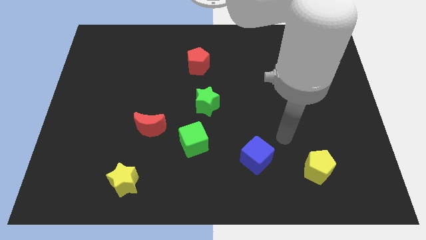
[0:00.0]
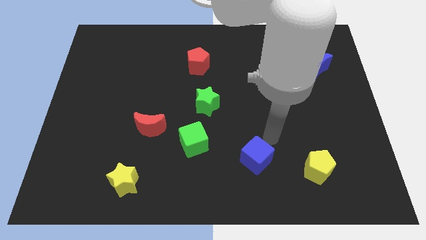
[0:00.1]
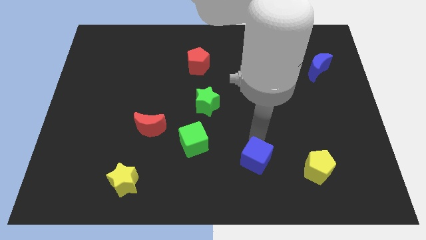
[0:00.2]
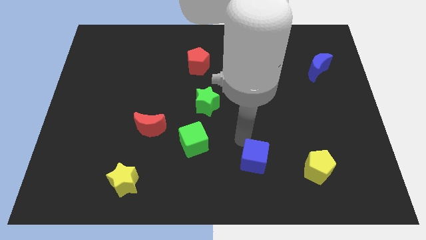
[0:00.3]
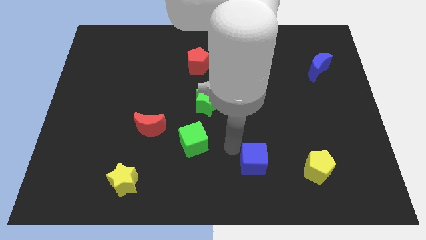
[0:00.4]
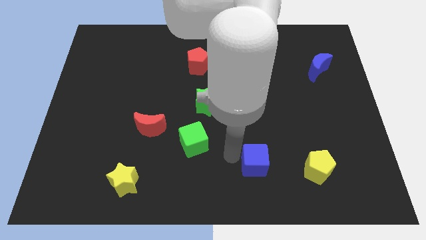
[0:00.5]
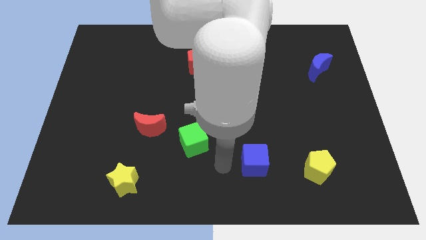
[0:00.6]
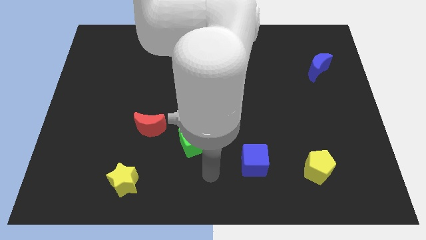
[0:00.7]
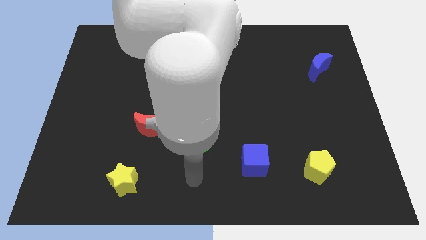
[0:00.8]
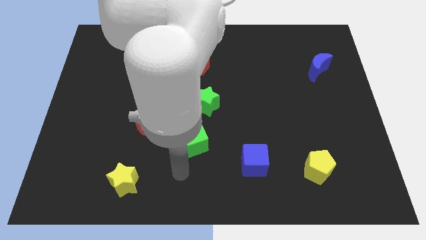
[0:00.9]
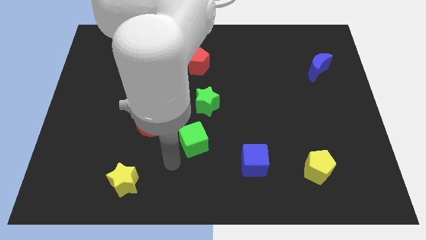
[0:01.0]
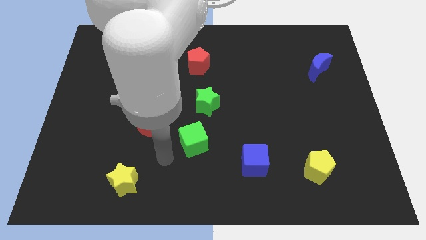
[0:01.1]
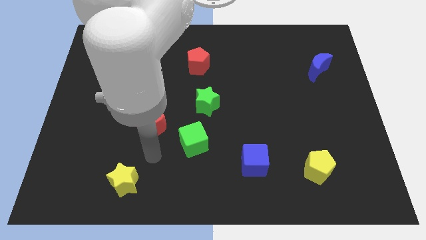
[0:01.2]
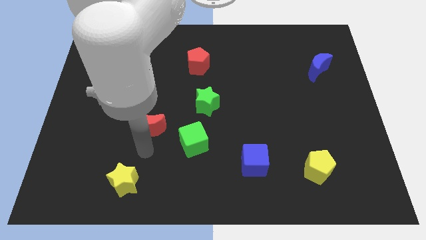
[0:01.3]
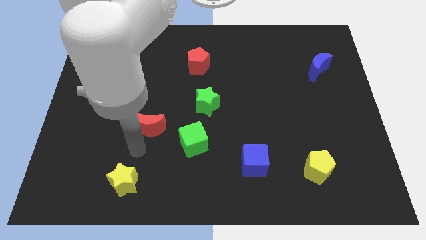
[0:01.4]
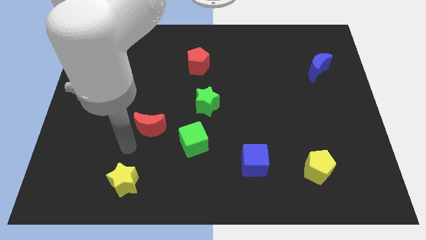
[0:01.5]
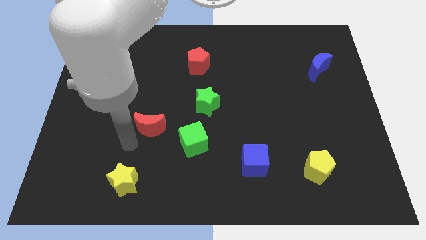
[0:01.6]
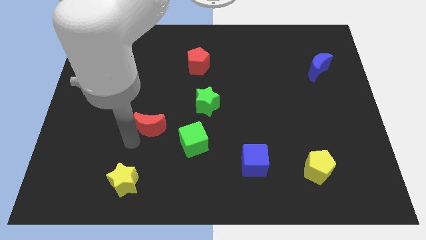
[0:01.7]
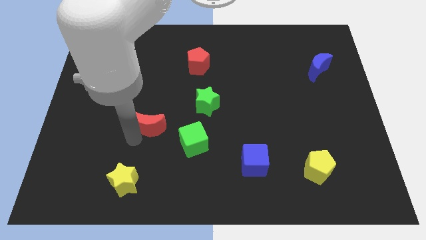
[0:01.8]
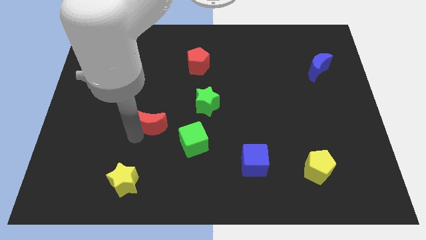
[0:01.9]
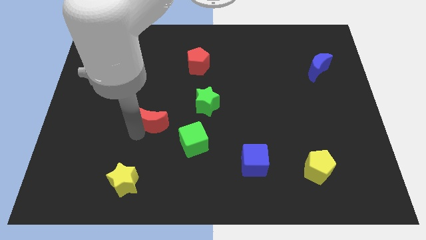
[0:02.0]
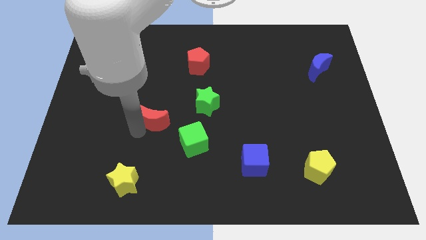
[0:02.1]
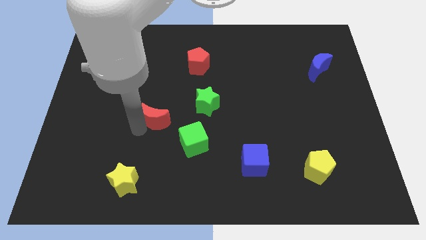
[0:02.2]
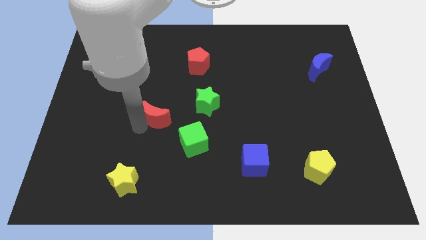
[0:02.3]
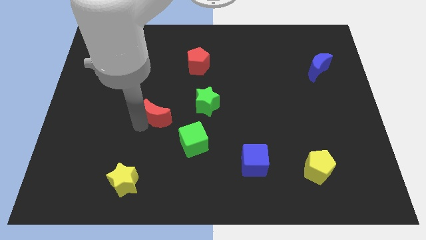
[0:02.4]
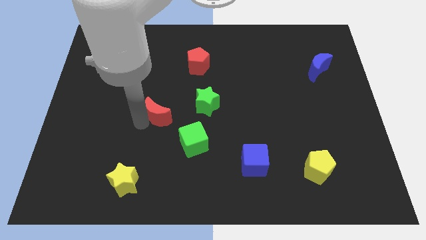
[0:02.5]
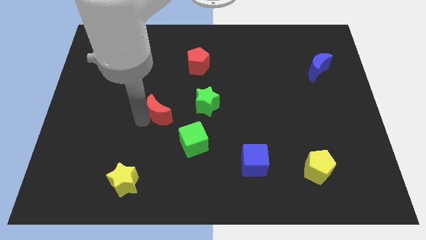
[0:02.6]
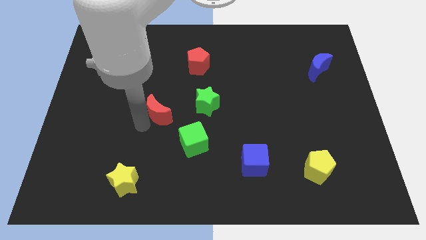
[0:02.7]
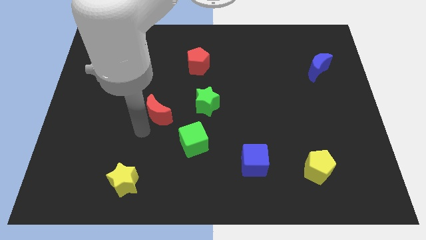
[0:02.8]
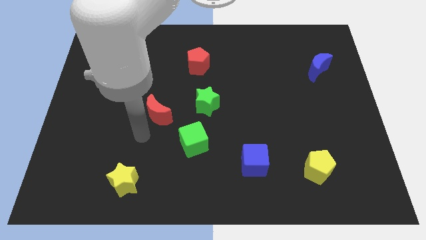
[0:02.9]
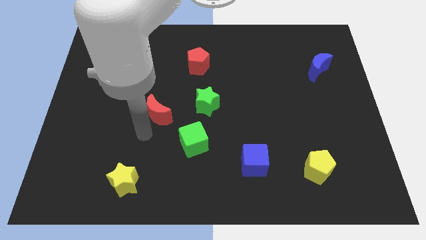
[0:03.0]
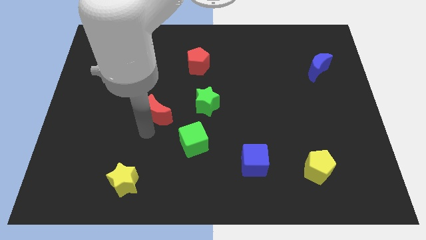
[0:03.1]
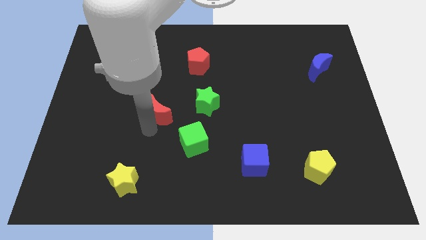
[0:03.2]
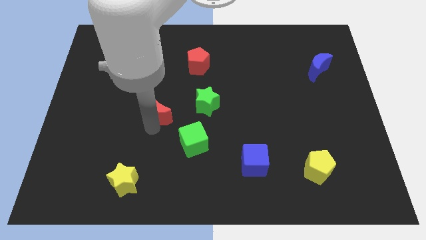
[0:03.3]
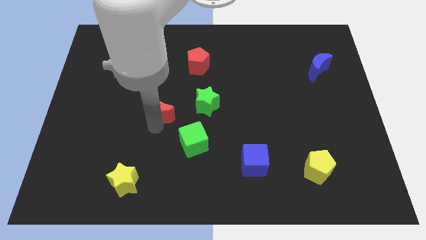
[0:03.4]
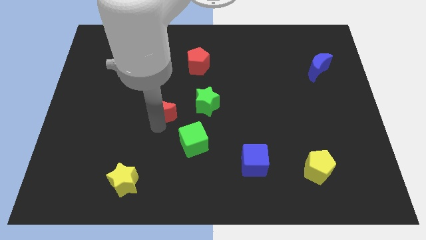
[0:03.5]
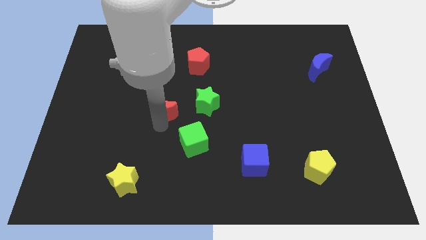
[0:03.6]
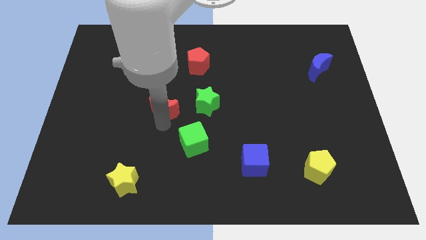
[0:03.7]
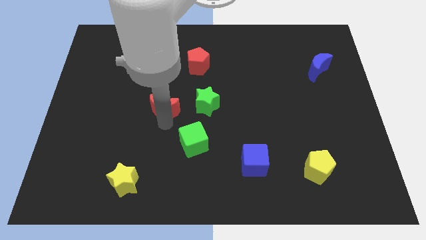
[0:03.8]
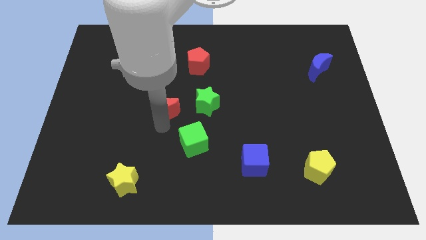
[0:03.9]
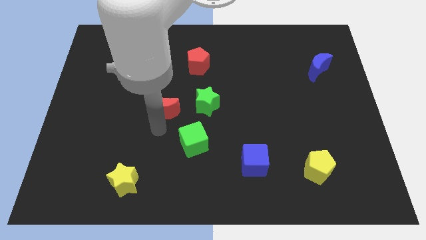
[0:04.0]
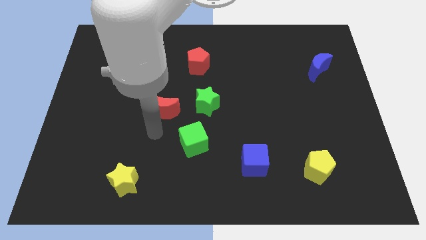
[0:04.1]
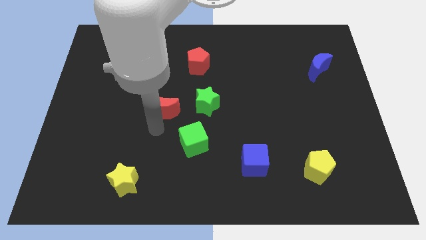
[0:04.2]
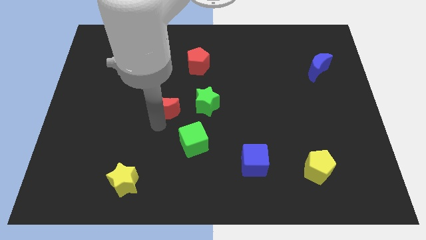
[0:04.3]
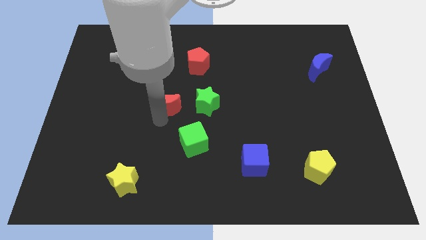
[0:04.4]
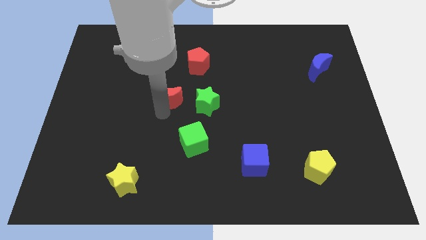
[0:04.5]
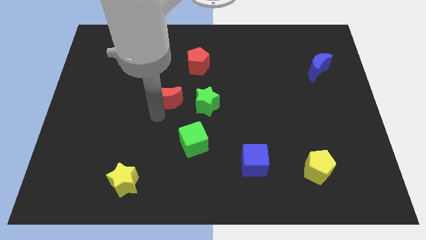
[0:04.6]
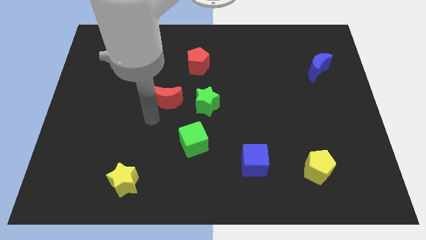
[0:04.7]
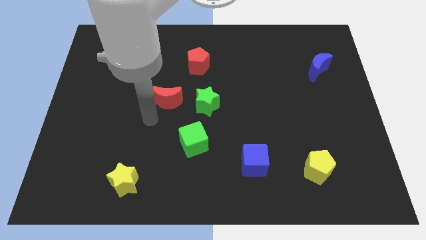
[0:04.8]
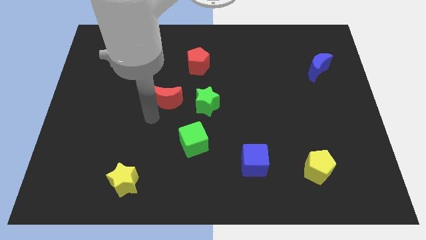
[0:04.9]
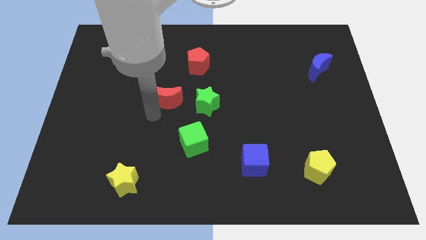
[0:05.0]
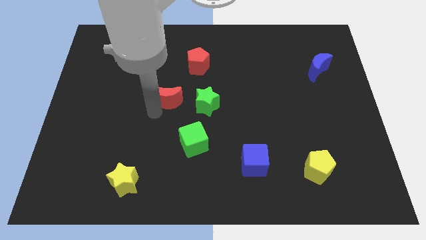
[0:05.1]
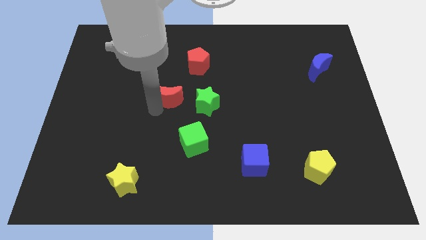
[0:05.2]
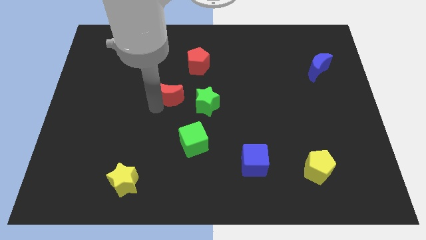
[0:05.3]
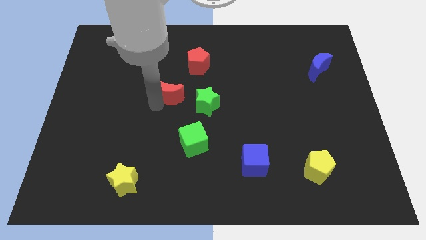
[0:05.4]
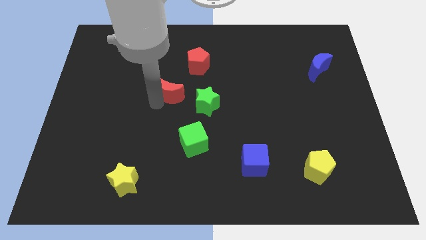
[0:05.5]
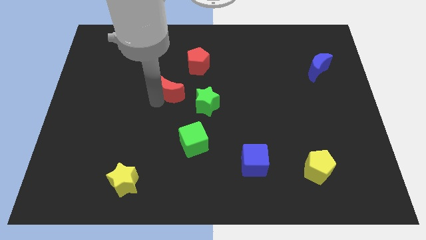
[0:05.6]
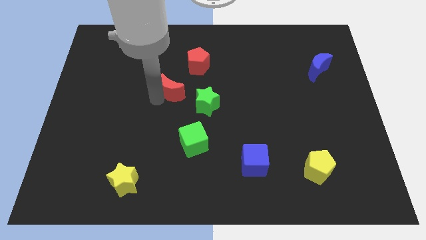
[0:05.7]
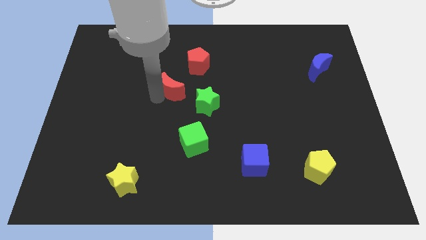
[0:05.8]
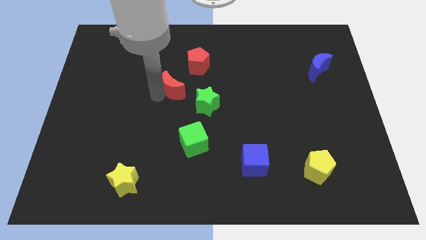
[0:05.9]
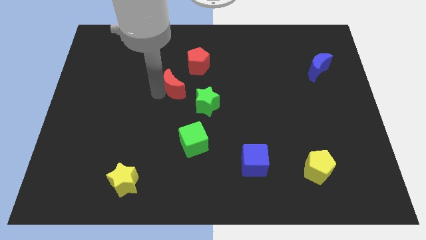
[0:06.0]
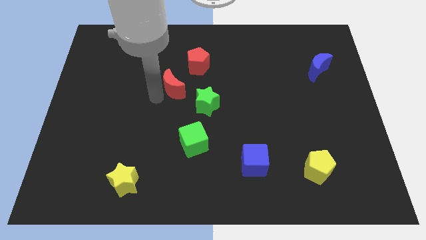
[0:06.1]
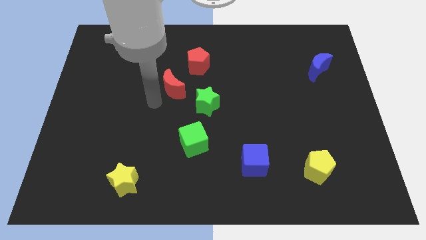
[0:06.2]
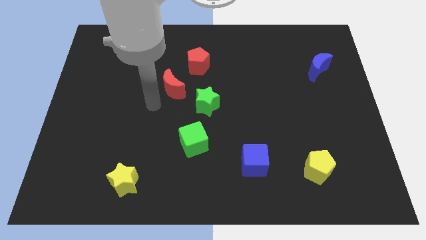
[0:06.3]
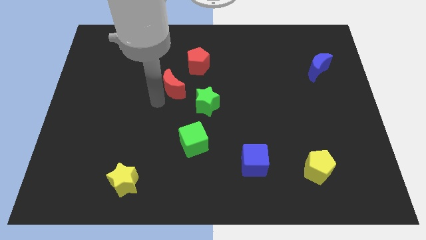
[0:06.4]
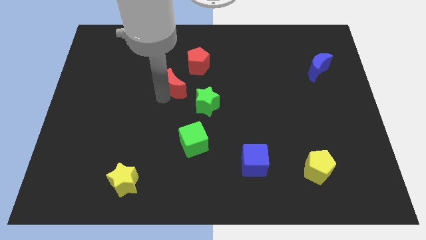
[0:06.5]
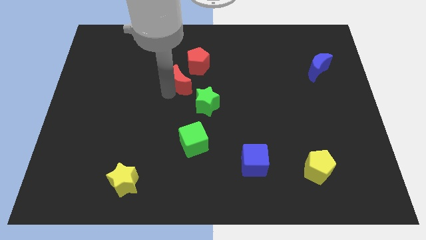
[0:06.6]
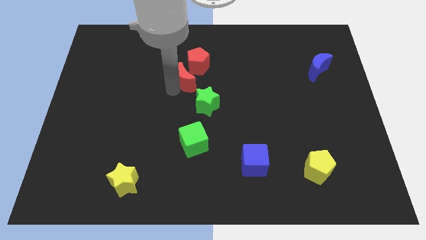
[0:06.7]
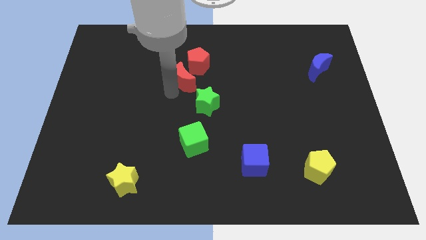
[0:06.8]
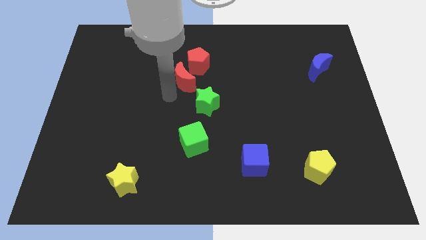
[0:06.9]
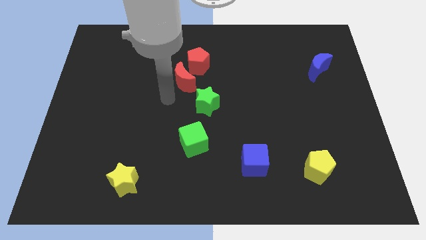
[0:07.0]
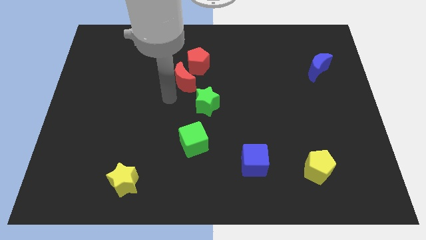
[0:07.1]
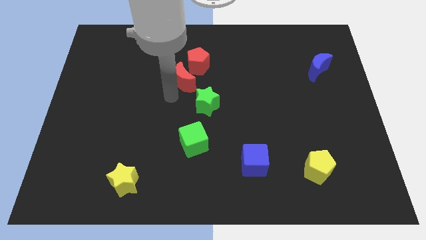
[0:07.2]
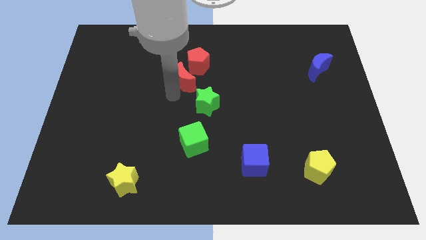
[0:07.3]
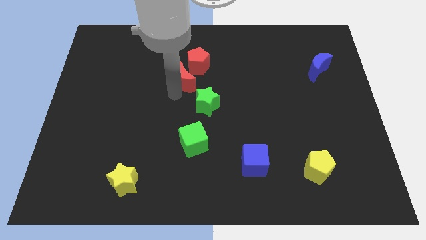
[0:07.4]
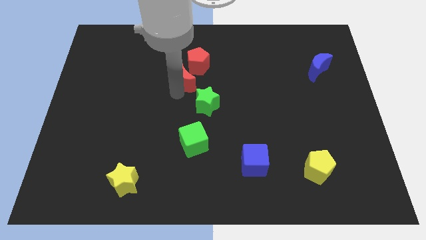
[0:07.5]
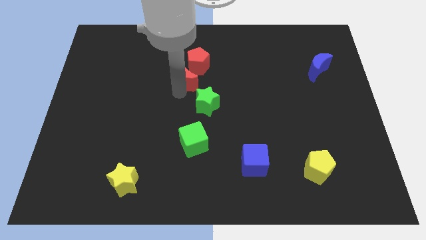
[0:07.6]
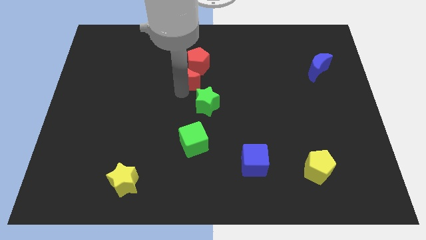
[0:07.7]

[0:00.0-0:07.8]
slide the red moon next to the red pentagon
